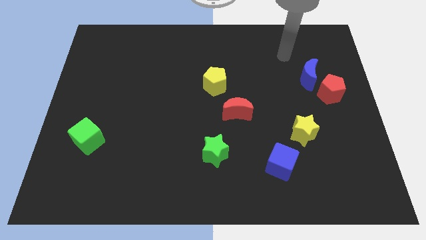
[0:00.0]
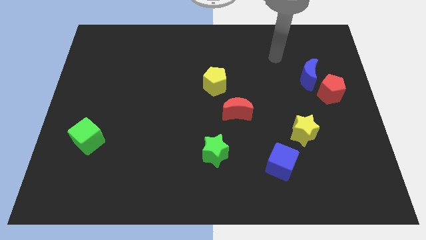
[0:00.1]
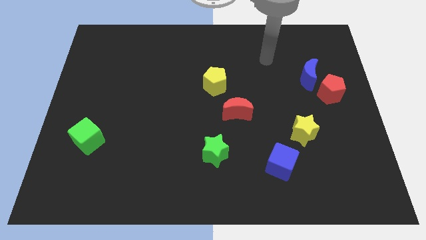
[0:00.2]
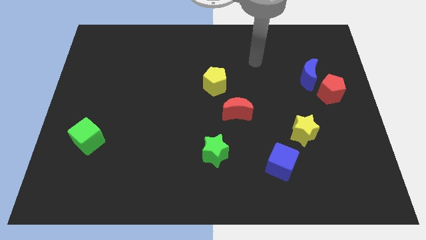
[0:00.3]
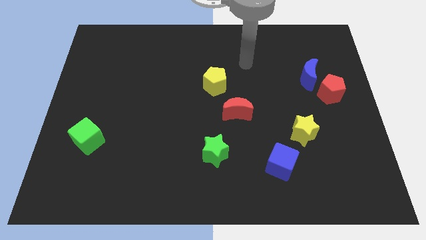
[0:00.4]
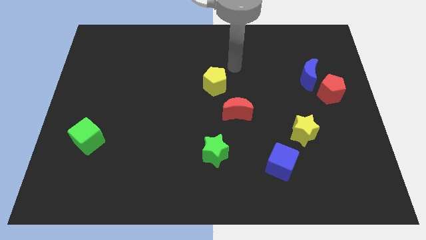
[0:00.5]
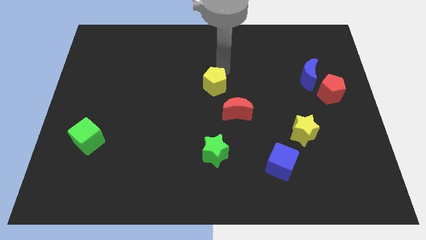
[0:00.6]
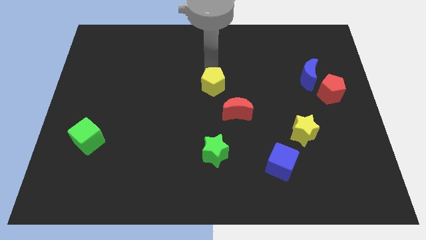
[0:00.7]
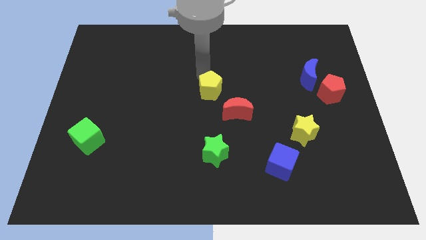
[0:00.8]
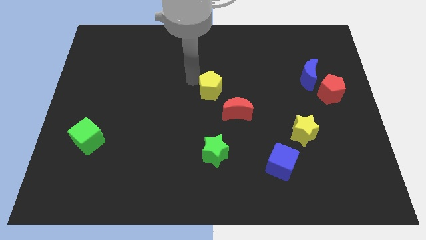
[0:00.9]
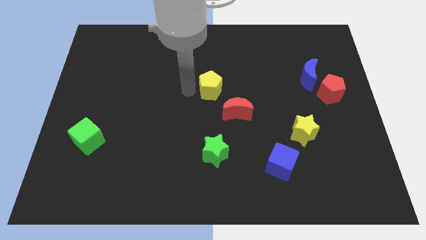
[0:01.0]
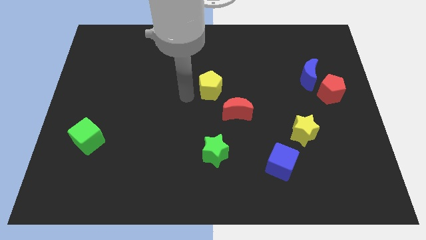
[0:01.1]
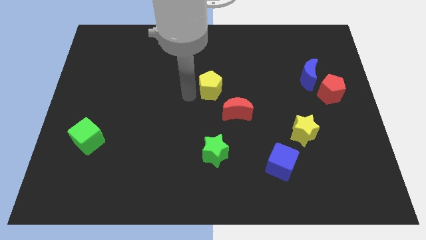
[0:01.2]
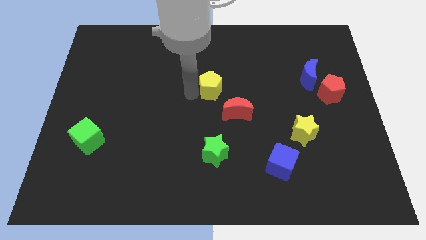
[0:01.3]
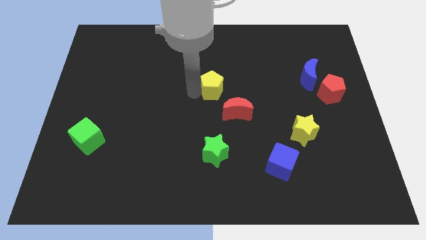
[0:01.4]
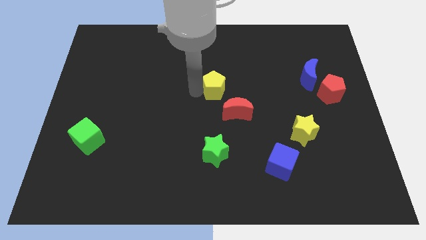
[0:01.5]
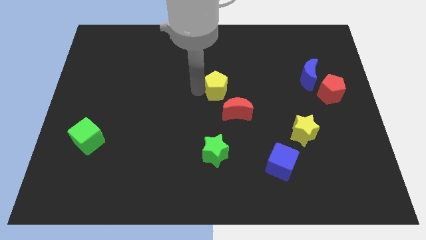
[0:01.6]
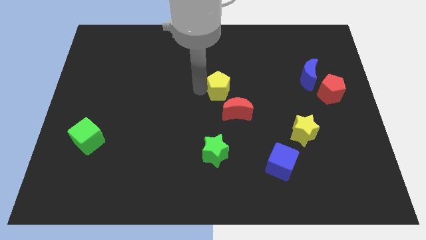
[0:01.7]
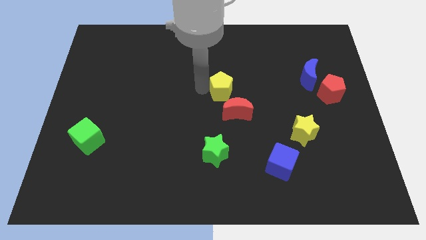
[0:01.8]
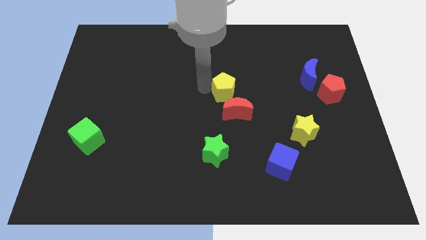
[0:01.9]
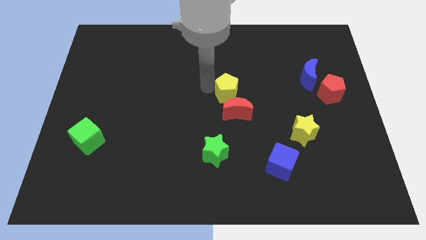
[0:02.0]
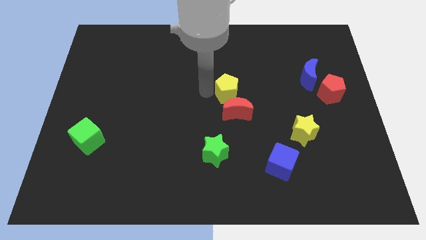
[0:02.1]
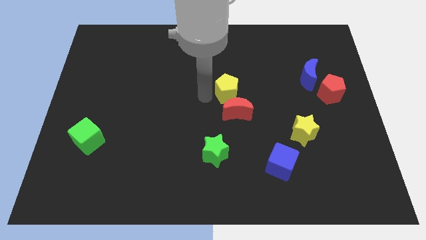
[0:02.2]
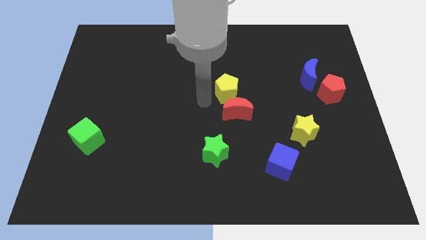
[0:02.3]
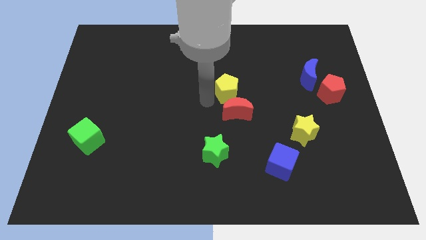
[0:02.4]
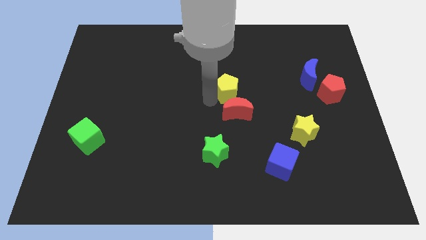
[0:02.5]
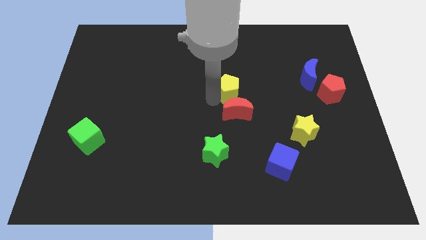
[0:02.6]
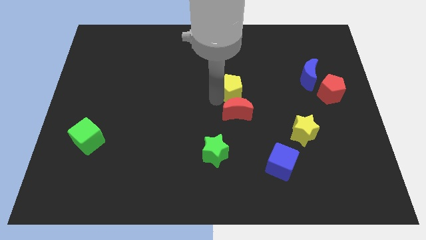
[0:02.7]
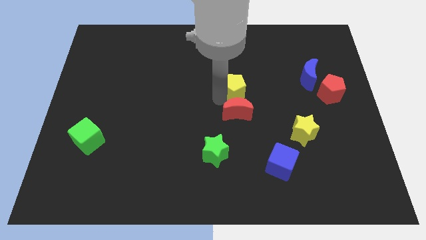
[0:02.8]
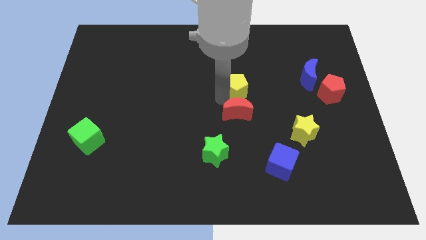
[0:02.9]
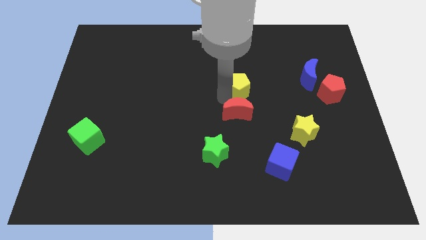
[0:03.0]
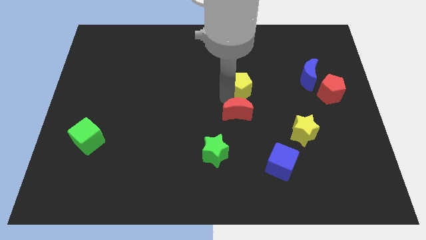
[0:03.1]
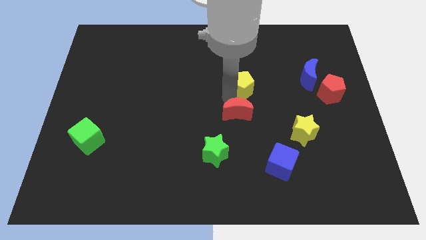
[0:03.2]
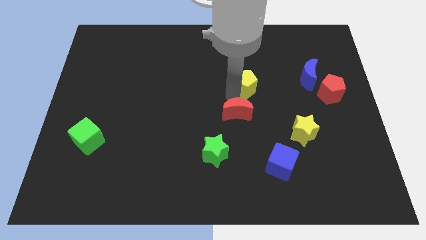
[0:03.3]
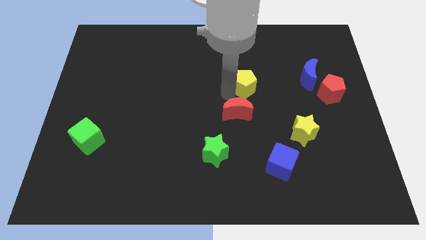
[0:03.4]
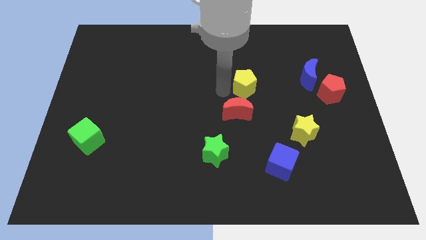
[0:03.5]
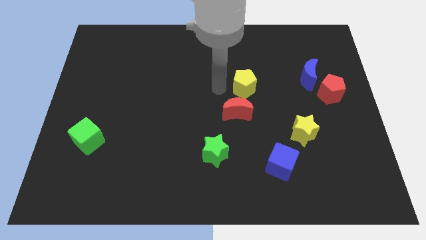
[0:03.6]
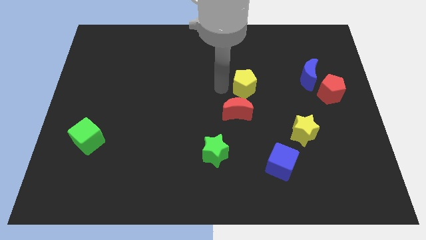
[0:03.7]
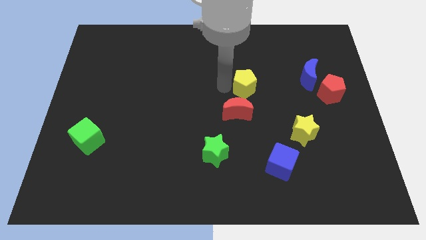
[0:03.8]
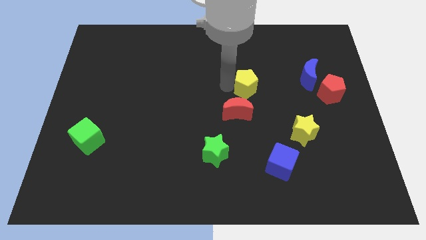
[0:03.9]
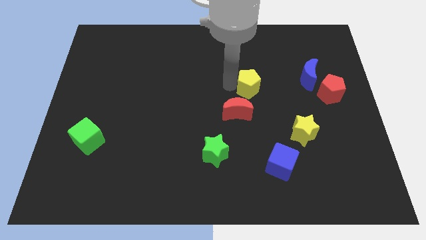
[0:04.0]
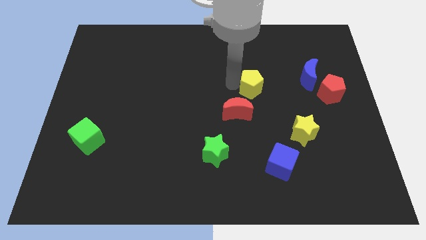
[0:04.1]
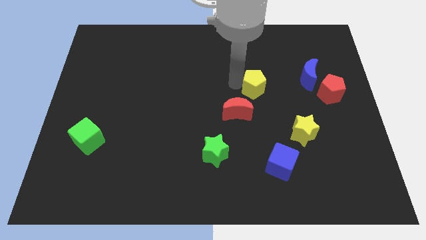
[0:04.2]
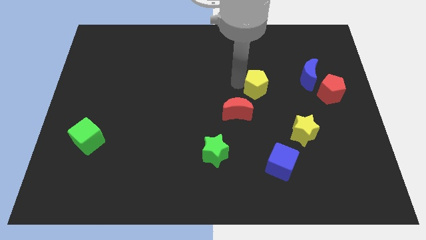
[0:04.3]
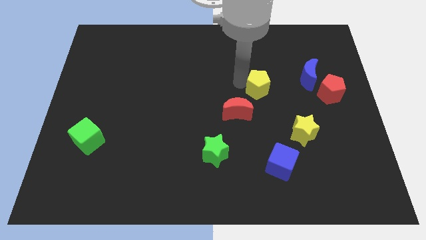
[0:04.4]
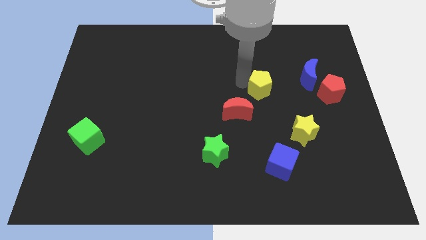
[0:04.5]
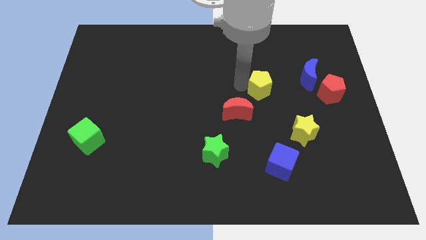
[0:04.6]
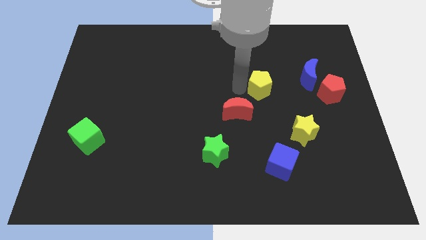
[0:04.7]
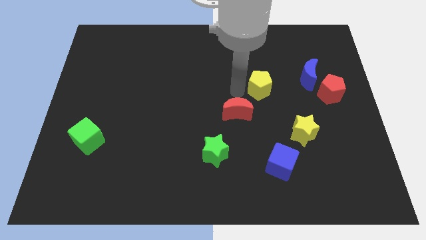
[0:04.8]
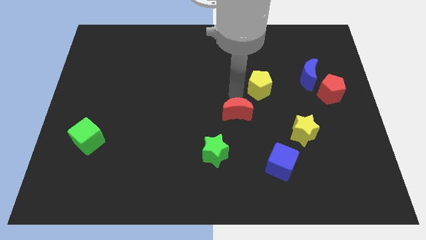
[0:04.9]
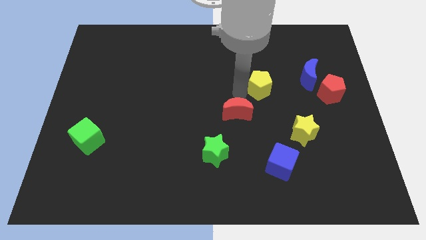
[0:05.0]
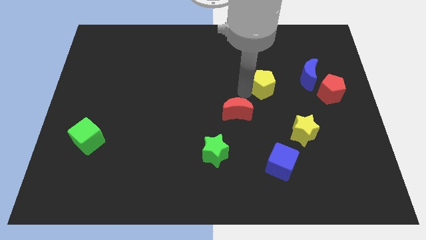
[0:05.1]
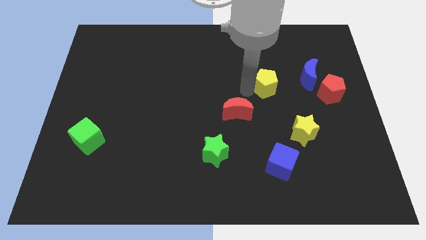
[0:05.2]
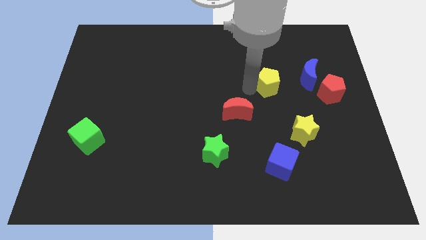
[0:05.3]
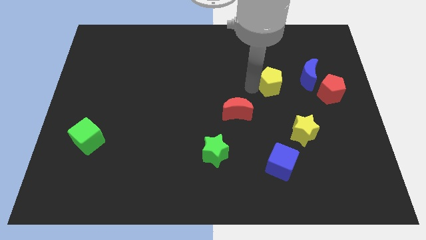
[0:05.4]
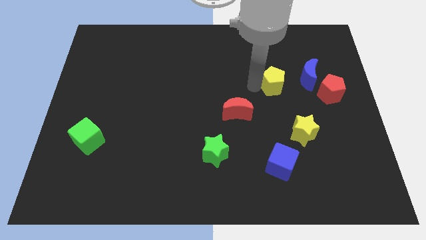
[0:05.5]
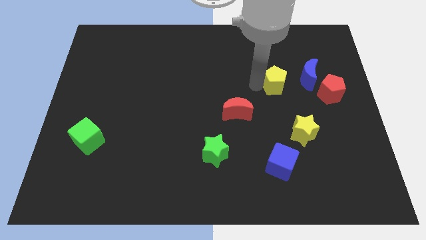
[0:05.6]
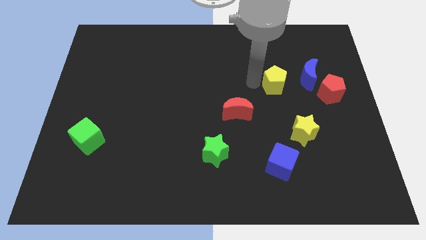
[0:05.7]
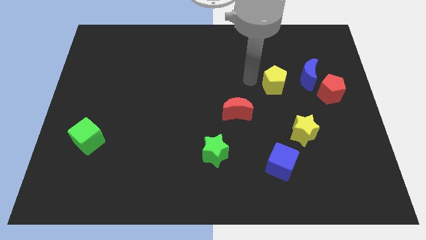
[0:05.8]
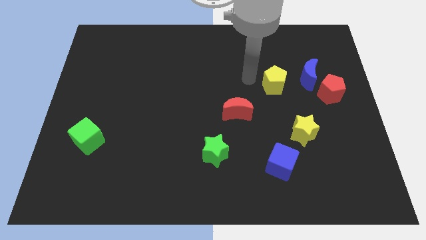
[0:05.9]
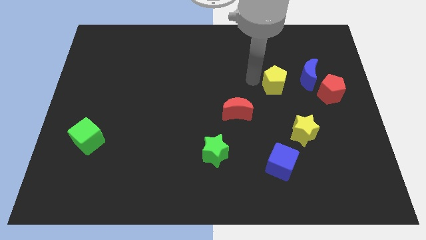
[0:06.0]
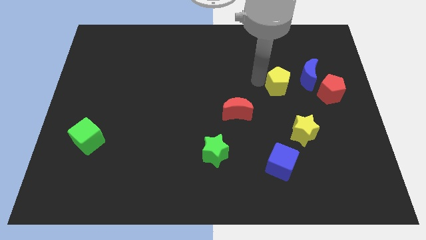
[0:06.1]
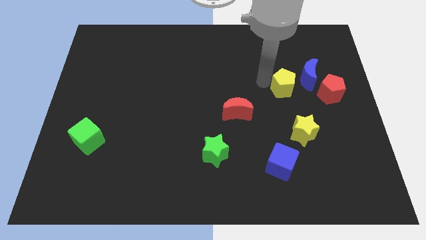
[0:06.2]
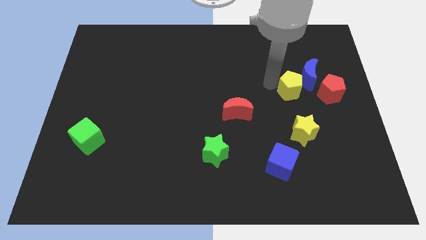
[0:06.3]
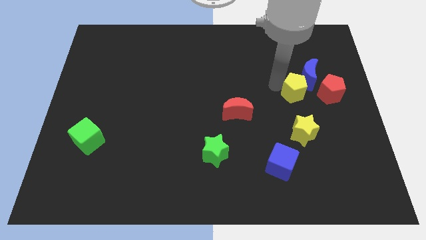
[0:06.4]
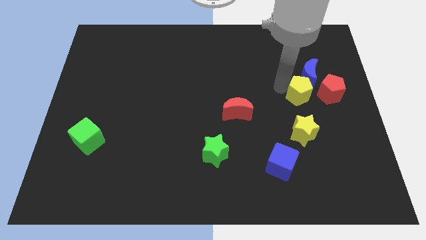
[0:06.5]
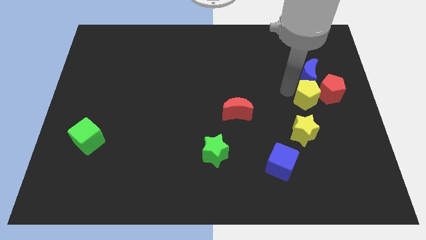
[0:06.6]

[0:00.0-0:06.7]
push the yellow pentagon to the red pentagon

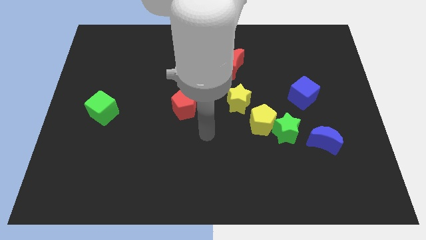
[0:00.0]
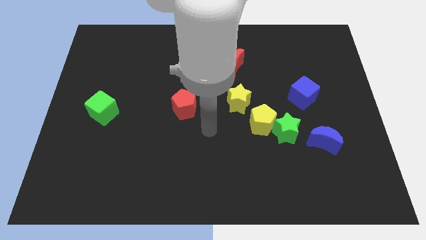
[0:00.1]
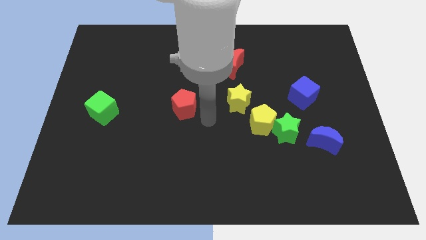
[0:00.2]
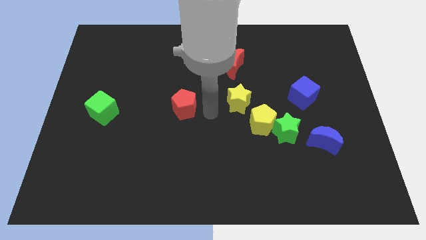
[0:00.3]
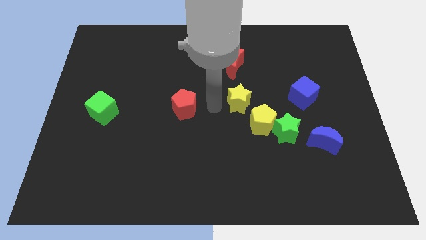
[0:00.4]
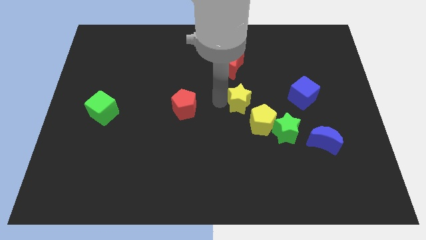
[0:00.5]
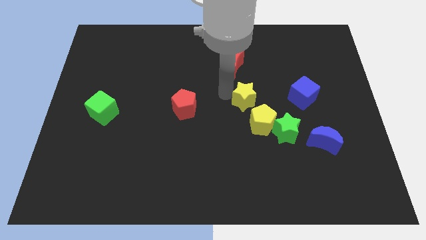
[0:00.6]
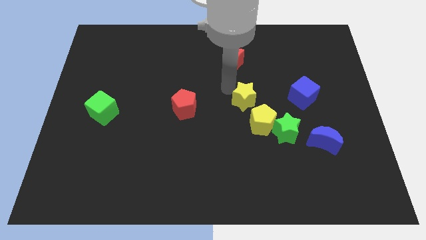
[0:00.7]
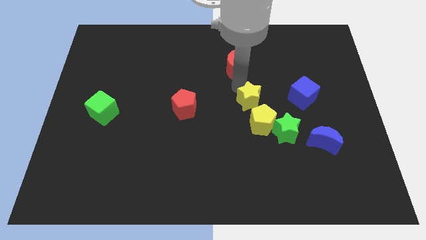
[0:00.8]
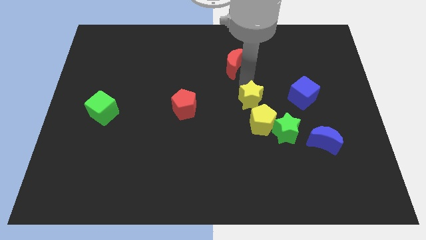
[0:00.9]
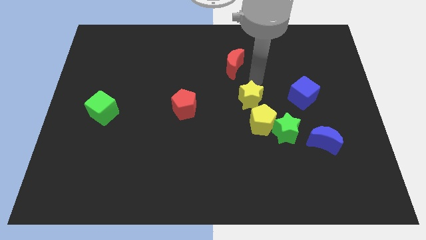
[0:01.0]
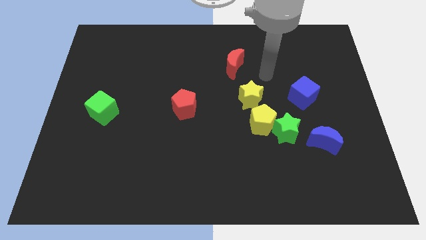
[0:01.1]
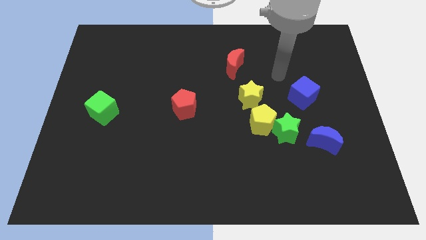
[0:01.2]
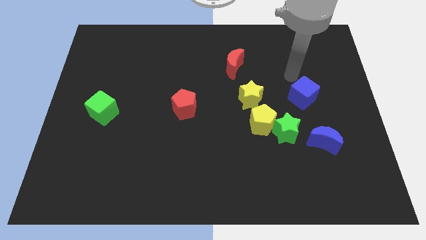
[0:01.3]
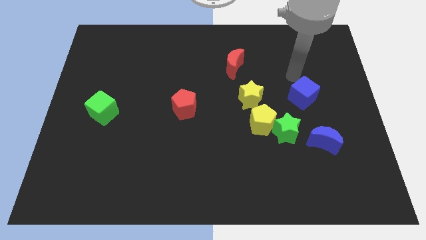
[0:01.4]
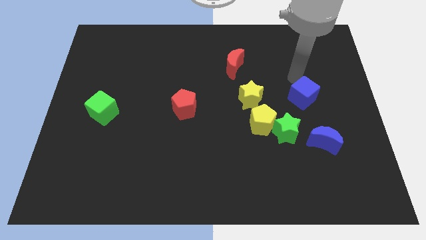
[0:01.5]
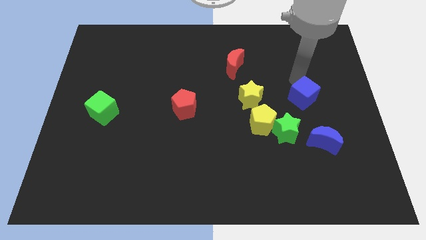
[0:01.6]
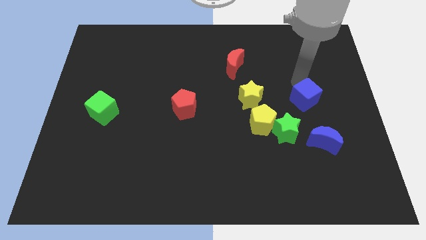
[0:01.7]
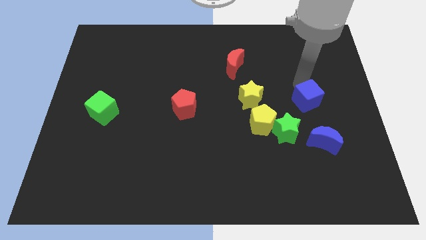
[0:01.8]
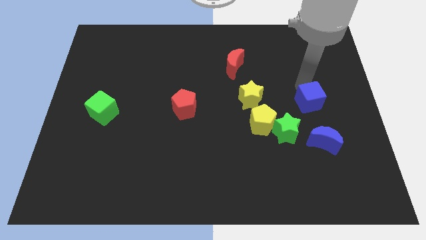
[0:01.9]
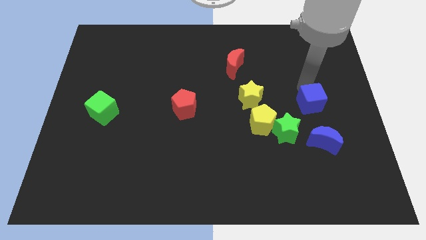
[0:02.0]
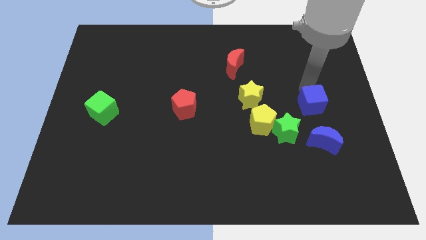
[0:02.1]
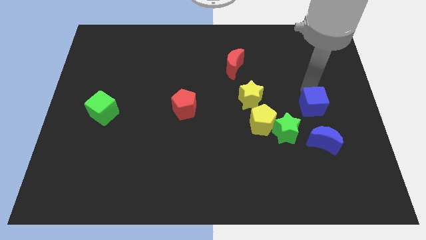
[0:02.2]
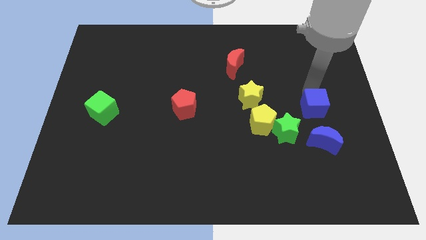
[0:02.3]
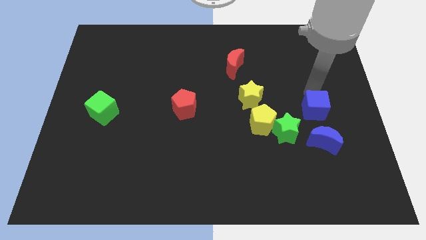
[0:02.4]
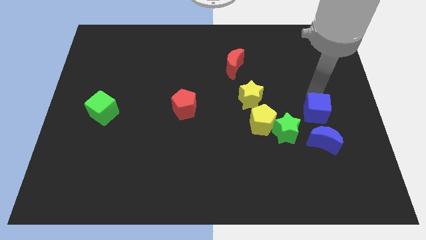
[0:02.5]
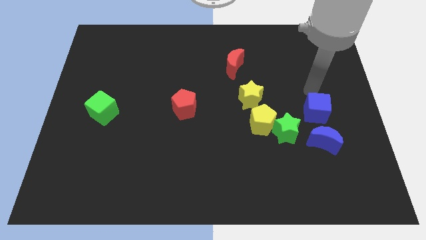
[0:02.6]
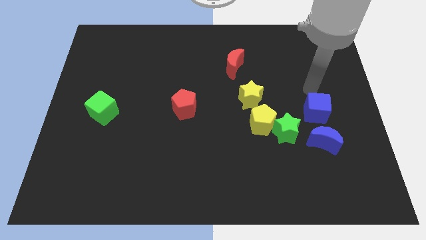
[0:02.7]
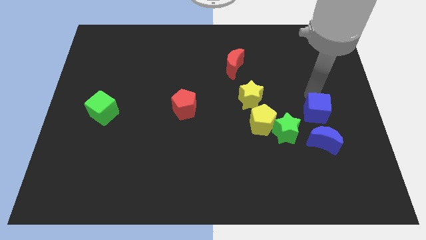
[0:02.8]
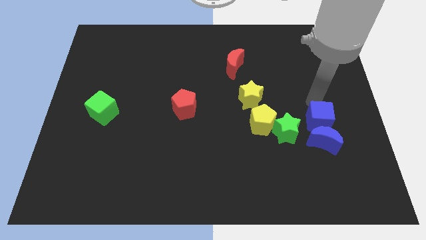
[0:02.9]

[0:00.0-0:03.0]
move the blue cube close to the blue moon
